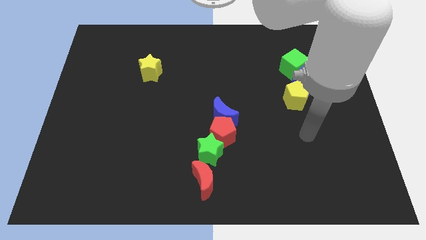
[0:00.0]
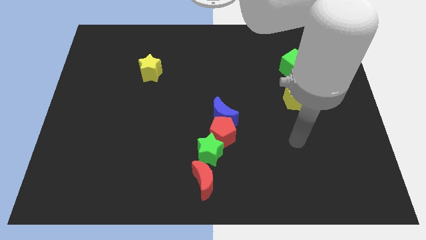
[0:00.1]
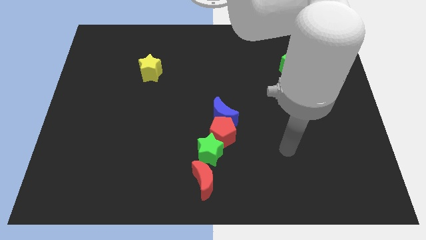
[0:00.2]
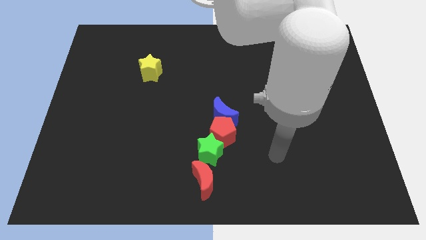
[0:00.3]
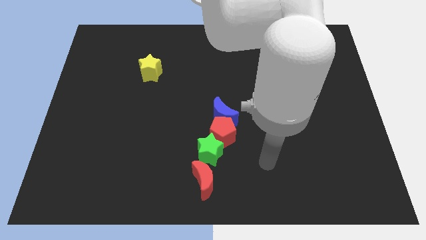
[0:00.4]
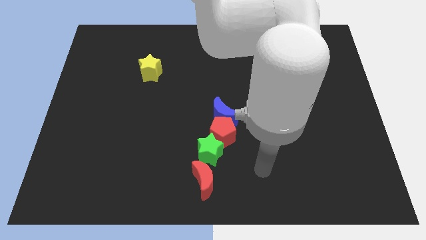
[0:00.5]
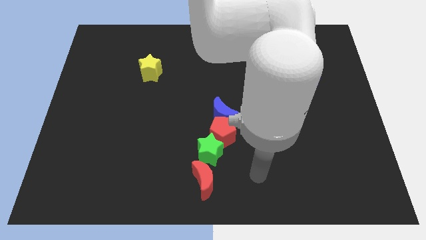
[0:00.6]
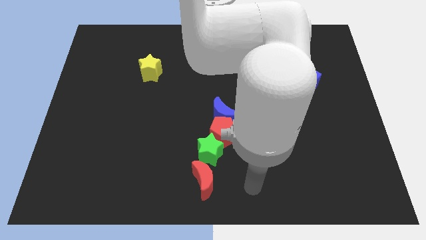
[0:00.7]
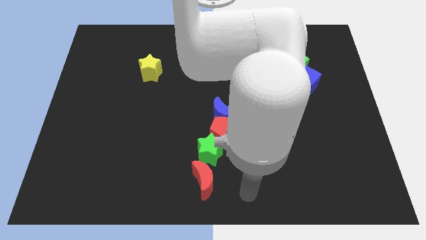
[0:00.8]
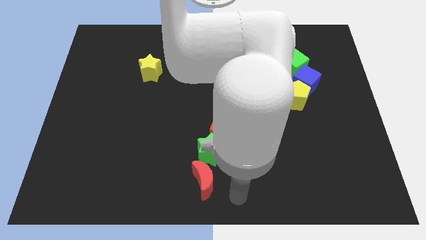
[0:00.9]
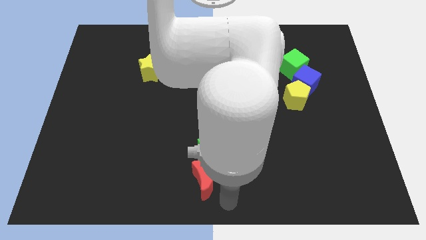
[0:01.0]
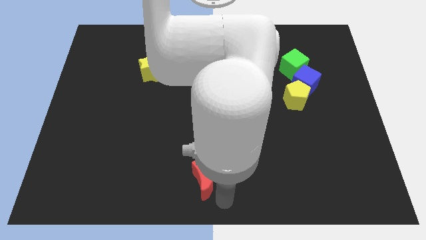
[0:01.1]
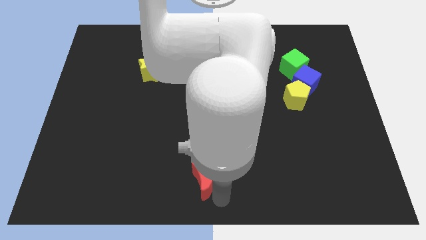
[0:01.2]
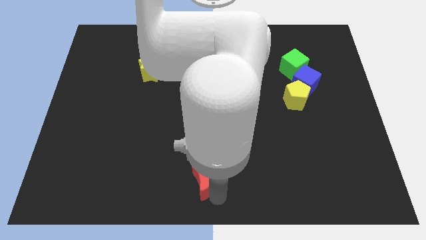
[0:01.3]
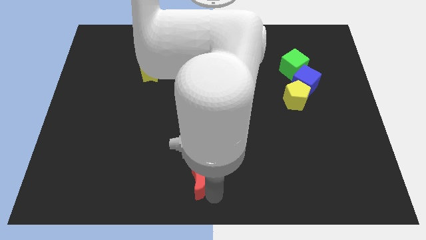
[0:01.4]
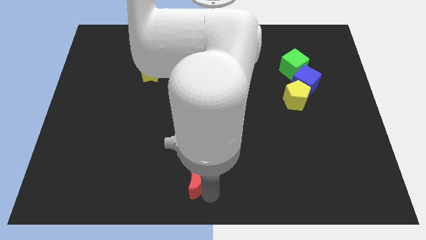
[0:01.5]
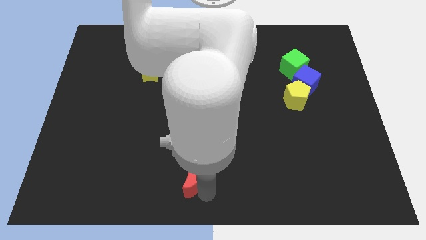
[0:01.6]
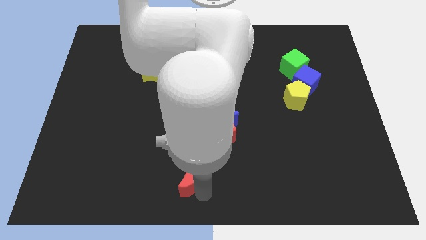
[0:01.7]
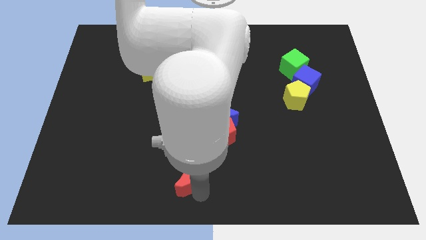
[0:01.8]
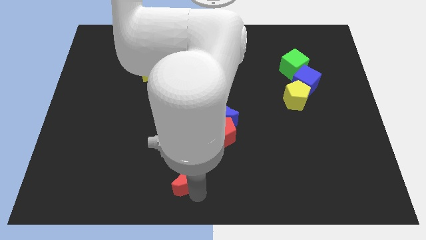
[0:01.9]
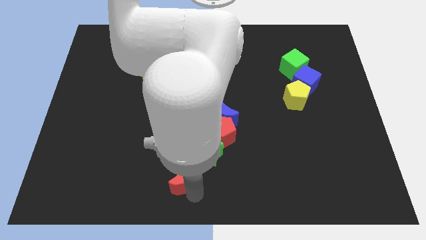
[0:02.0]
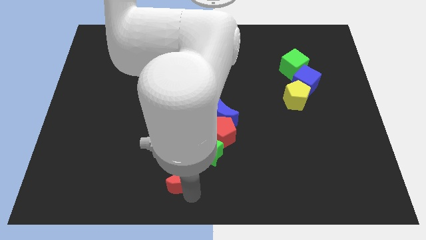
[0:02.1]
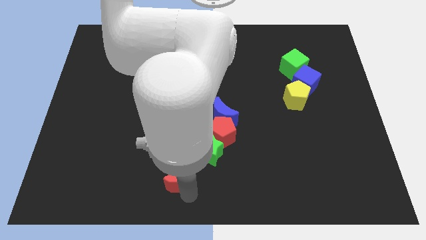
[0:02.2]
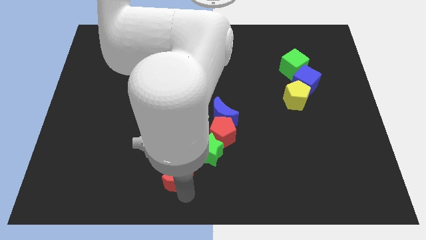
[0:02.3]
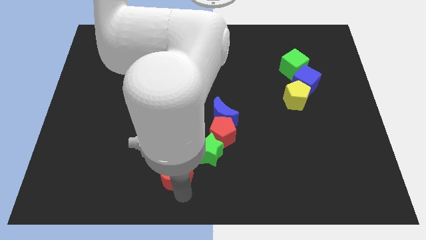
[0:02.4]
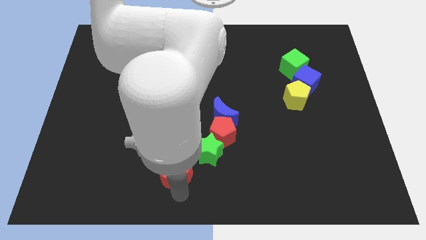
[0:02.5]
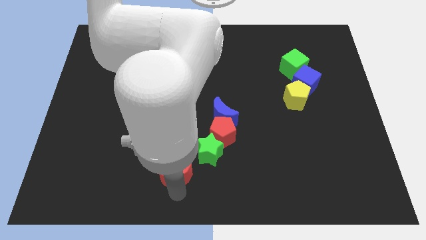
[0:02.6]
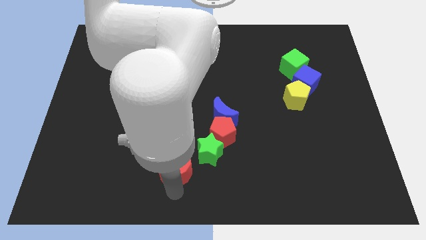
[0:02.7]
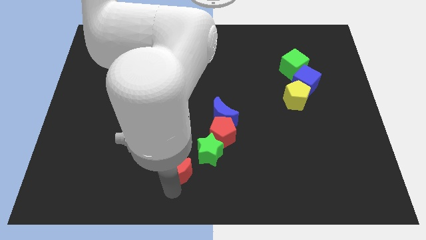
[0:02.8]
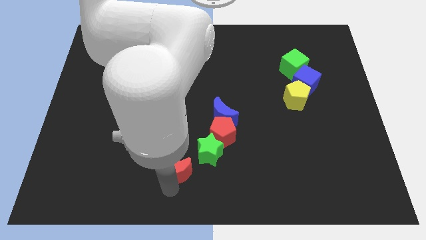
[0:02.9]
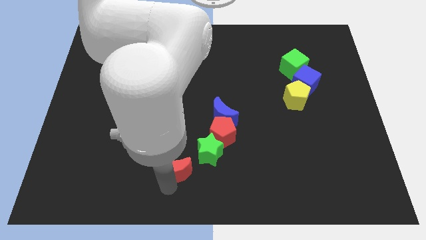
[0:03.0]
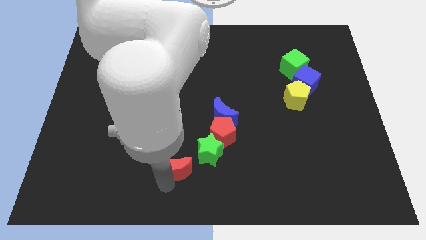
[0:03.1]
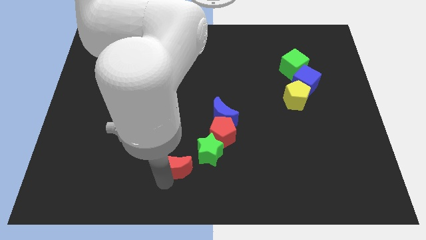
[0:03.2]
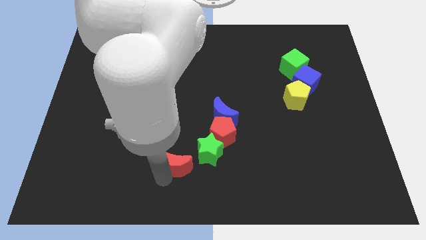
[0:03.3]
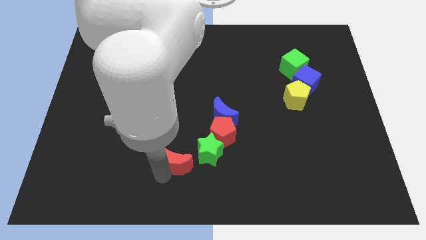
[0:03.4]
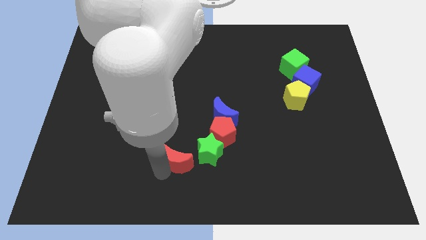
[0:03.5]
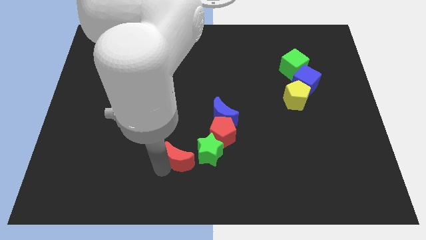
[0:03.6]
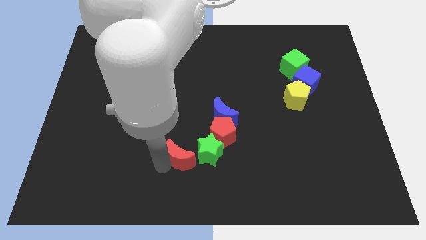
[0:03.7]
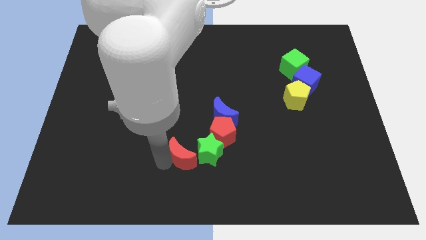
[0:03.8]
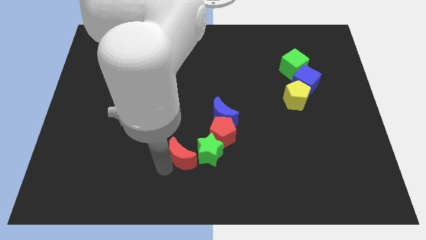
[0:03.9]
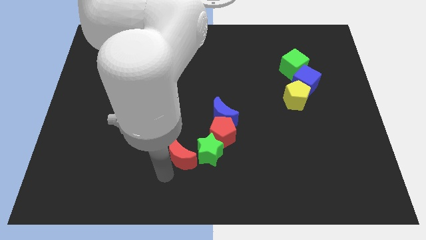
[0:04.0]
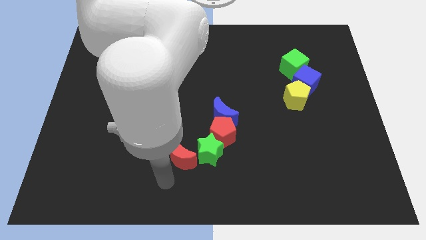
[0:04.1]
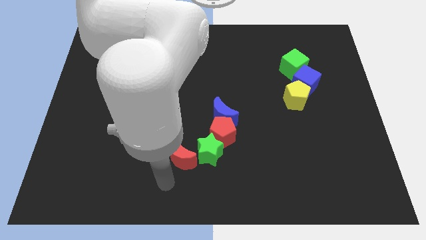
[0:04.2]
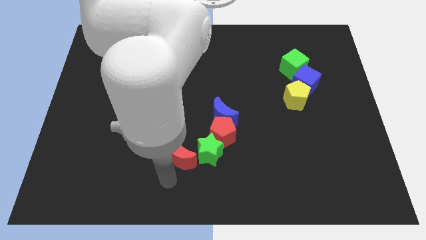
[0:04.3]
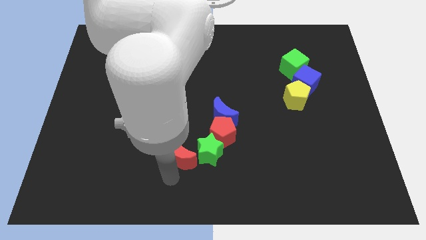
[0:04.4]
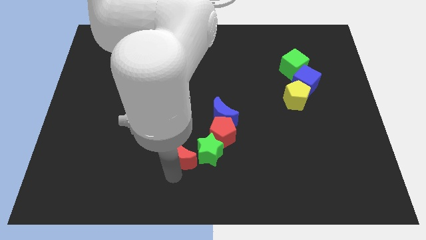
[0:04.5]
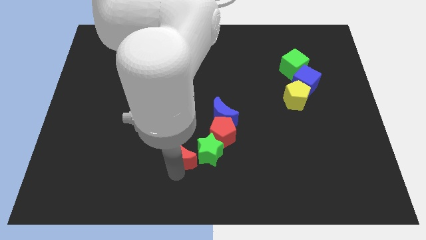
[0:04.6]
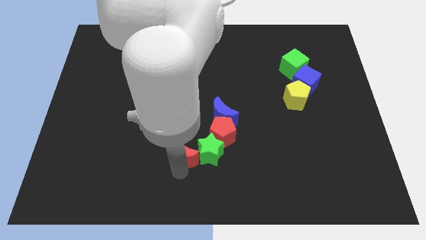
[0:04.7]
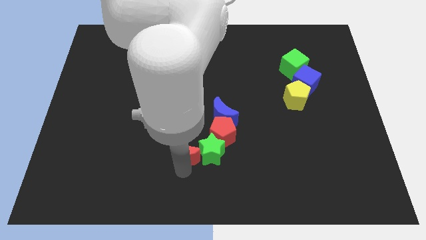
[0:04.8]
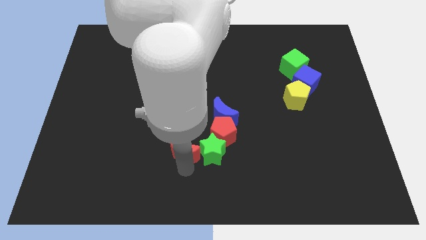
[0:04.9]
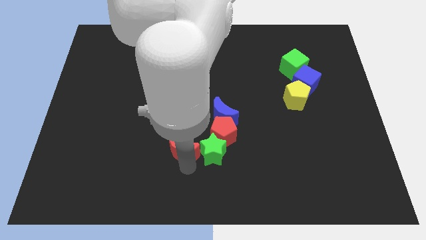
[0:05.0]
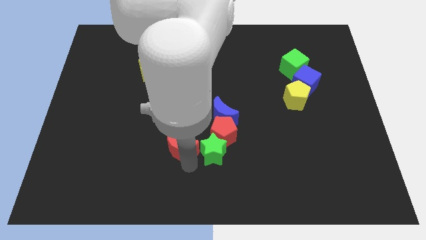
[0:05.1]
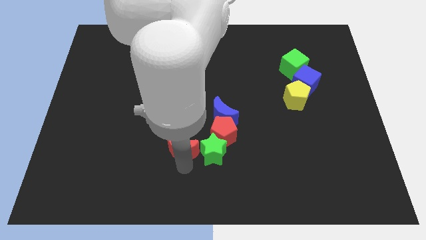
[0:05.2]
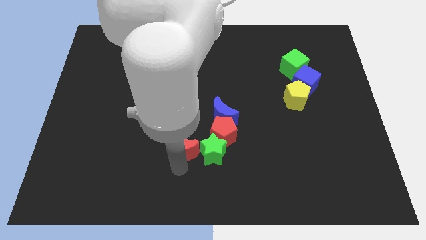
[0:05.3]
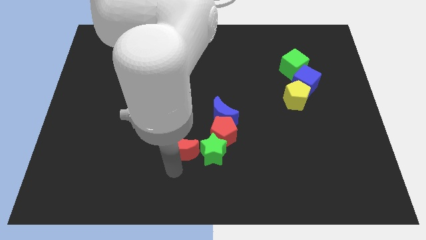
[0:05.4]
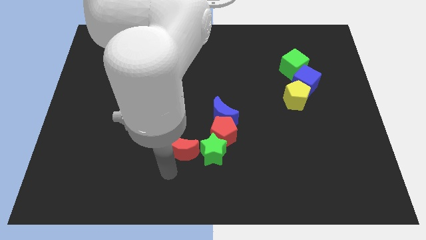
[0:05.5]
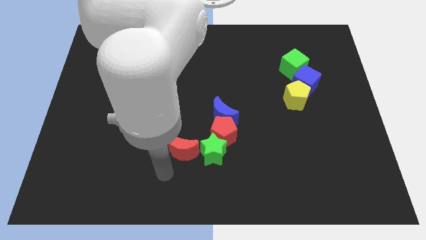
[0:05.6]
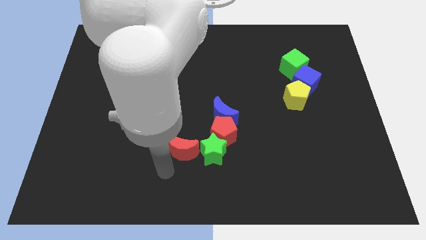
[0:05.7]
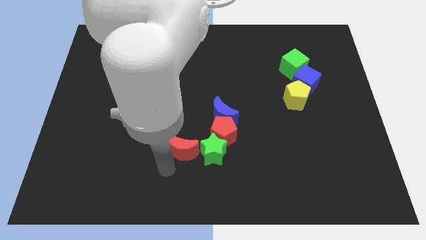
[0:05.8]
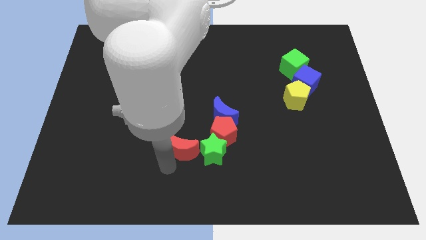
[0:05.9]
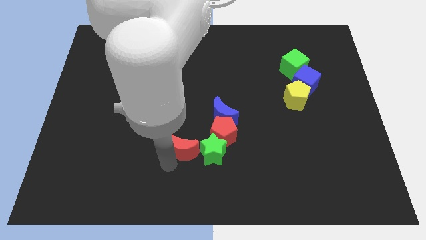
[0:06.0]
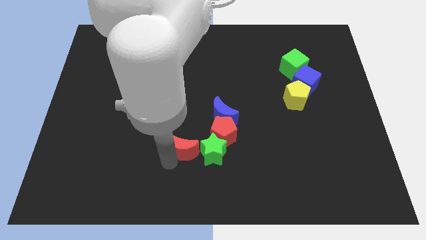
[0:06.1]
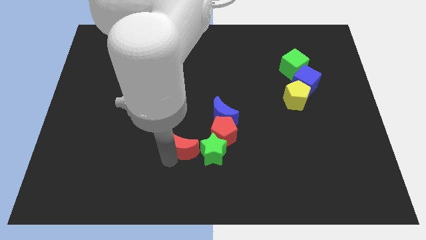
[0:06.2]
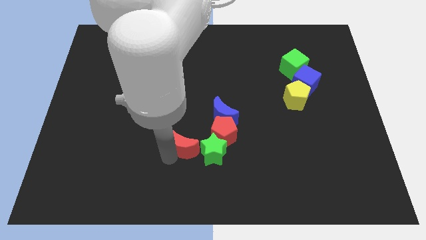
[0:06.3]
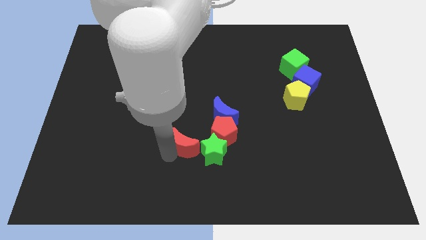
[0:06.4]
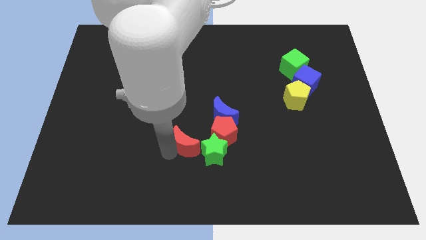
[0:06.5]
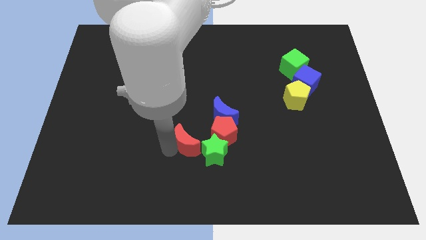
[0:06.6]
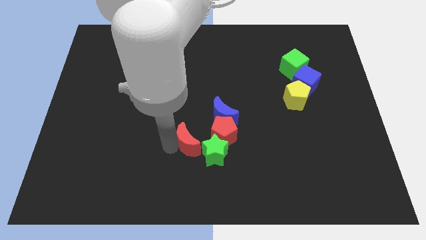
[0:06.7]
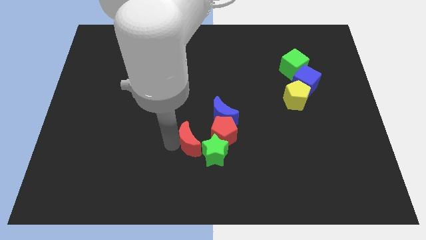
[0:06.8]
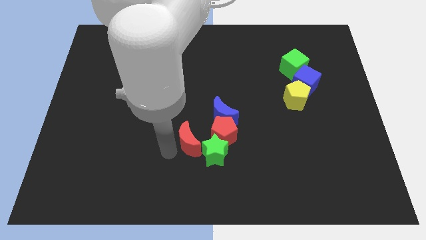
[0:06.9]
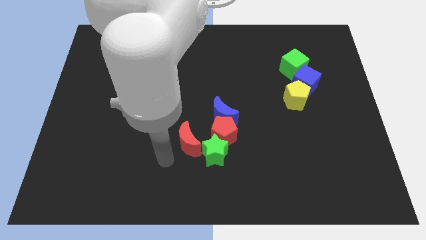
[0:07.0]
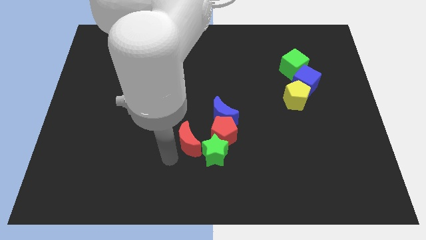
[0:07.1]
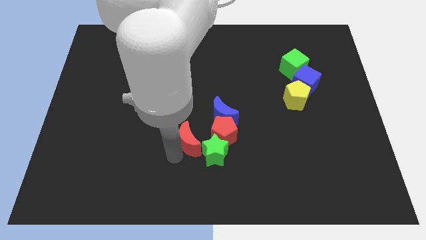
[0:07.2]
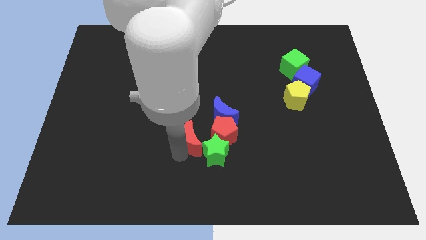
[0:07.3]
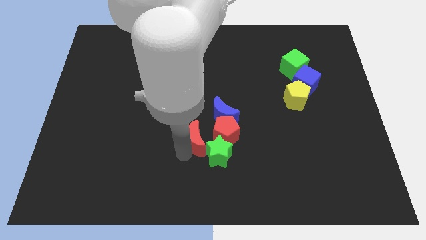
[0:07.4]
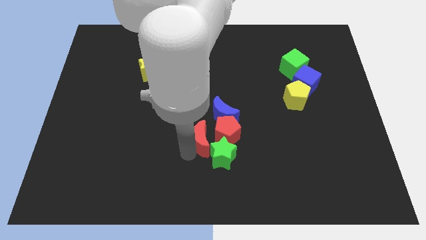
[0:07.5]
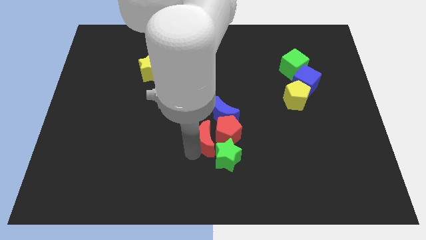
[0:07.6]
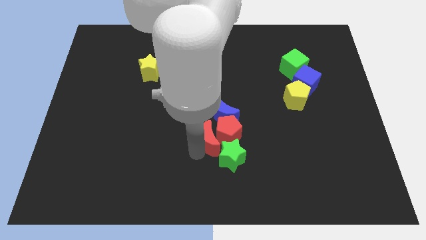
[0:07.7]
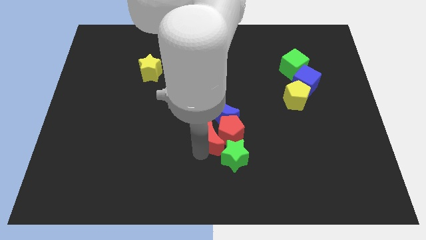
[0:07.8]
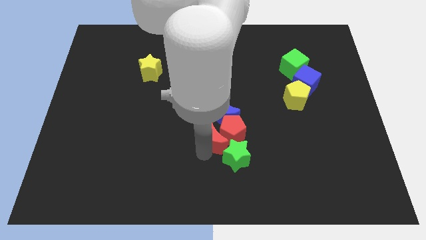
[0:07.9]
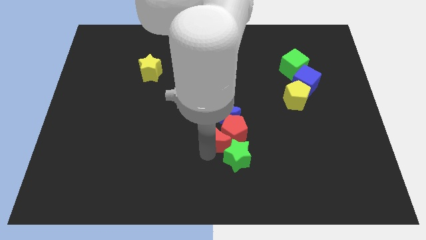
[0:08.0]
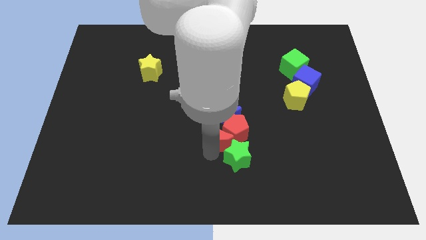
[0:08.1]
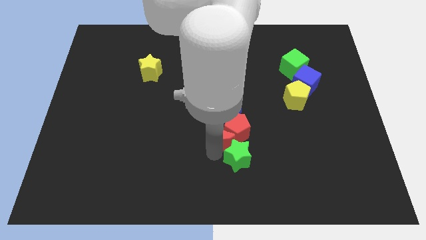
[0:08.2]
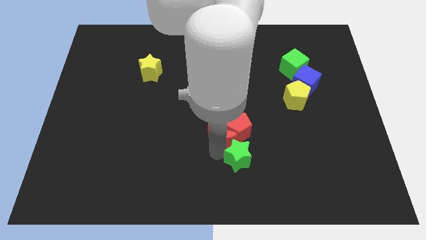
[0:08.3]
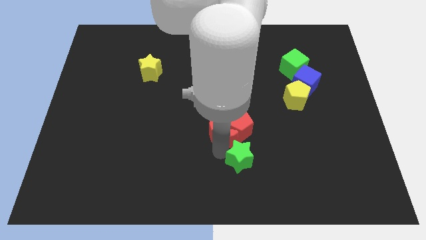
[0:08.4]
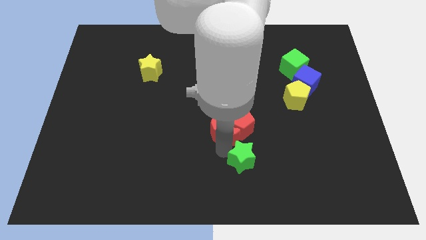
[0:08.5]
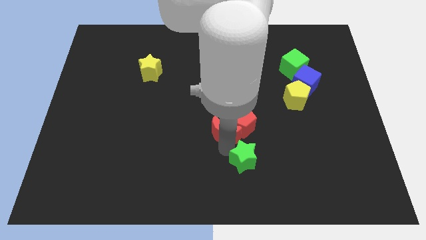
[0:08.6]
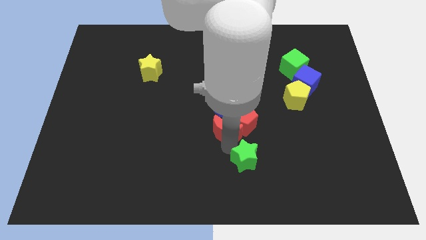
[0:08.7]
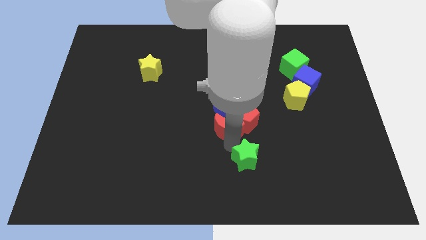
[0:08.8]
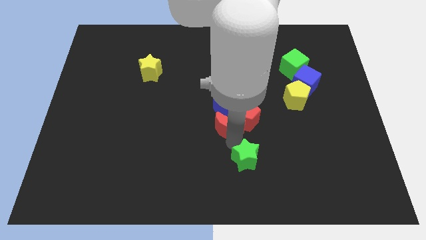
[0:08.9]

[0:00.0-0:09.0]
push the red moon to the blue moon
